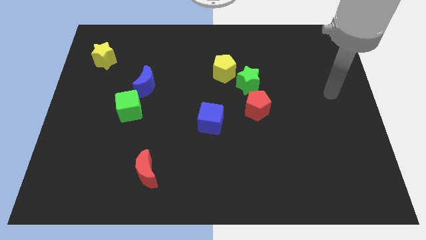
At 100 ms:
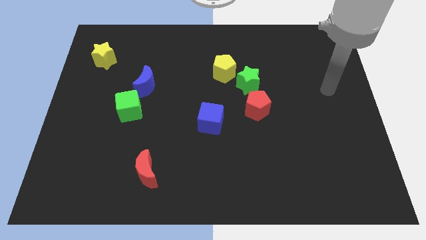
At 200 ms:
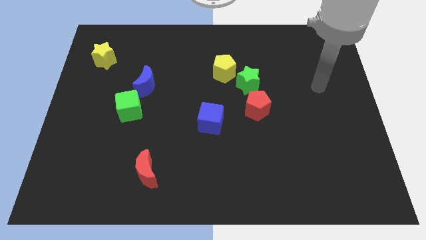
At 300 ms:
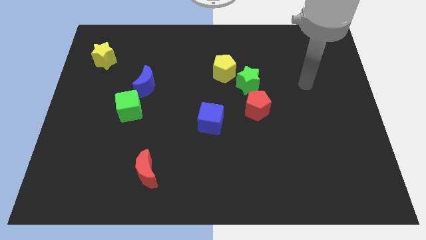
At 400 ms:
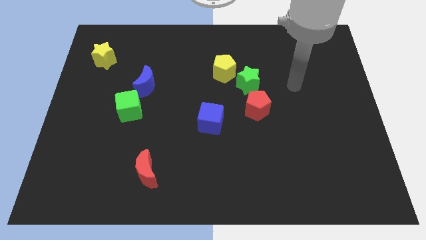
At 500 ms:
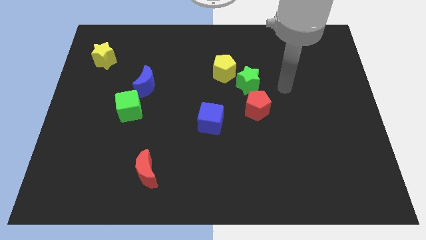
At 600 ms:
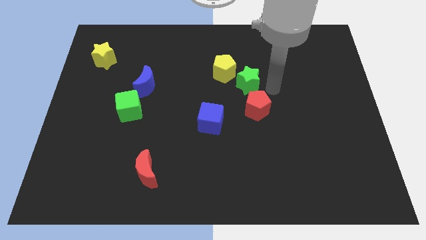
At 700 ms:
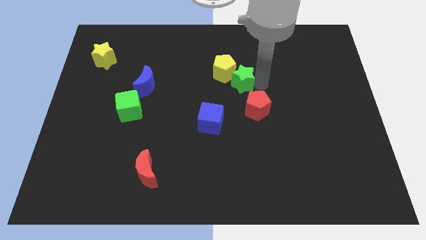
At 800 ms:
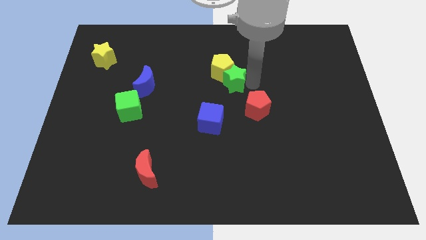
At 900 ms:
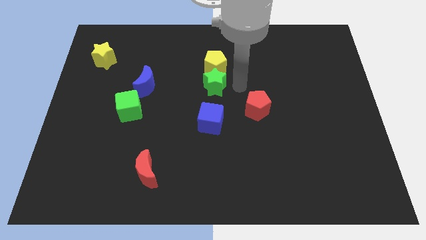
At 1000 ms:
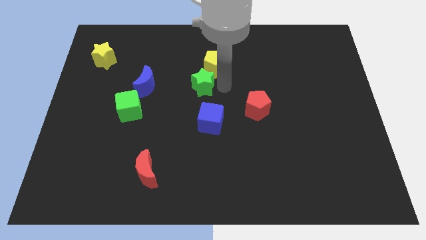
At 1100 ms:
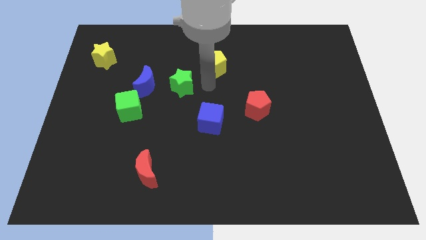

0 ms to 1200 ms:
move the yellow pentagon away from the green star

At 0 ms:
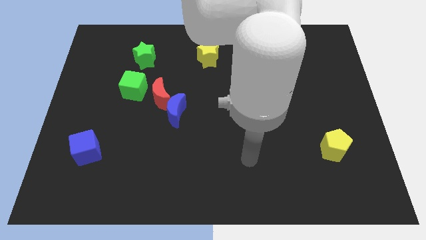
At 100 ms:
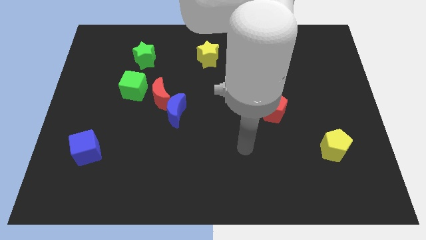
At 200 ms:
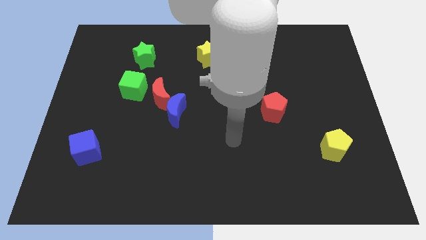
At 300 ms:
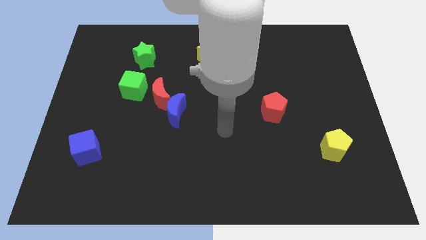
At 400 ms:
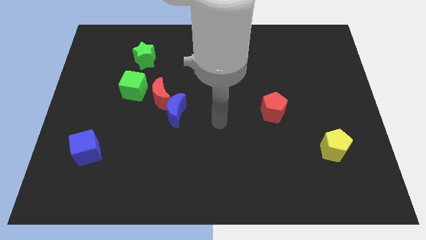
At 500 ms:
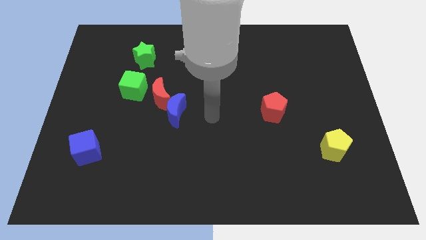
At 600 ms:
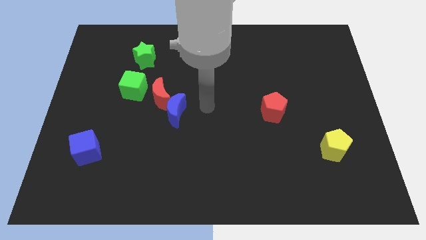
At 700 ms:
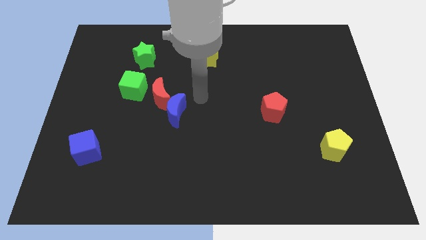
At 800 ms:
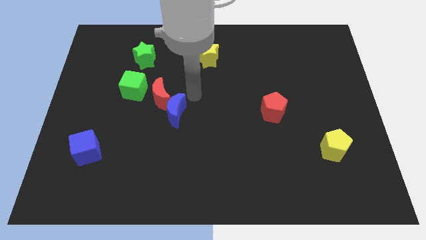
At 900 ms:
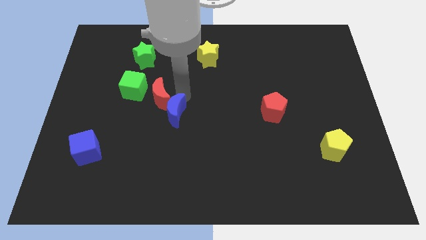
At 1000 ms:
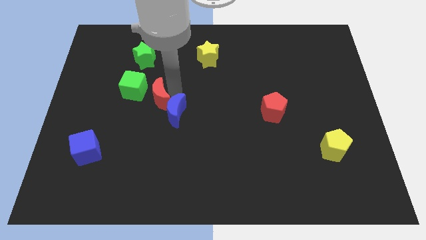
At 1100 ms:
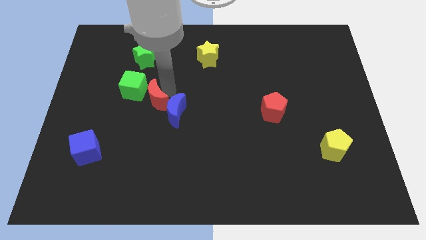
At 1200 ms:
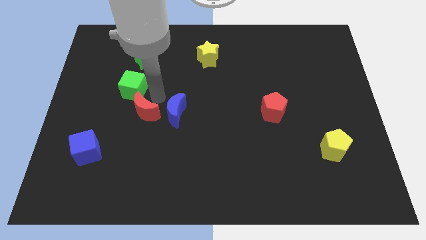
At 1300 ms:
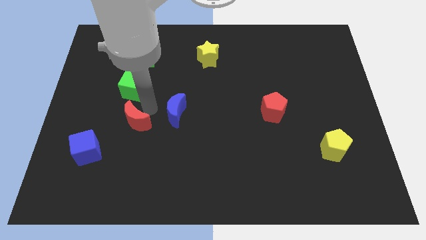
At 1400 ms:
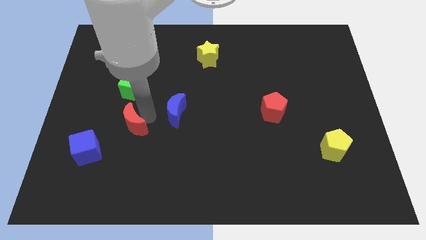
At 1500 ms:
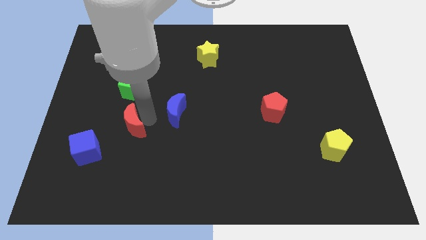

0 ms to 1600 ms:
pull the blue moon apart from the red moon

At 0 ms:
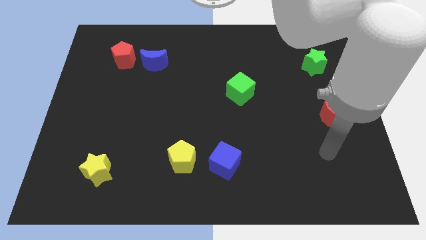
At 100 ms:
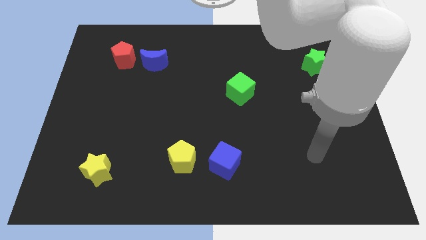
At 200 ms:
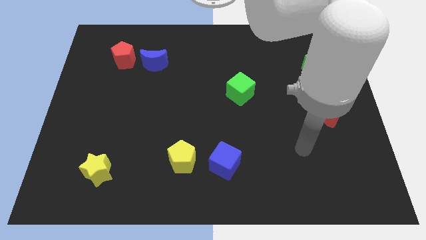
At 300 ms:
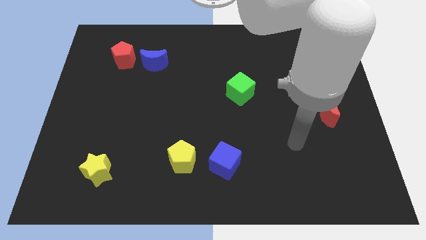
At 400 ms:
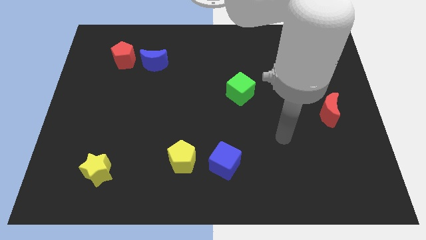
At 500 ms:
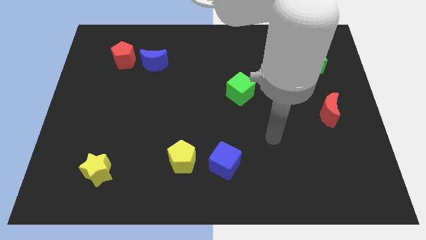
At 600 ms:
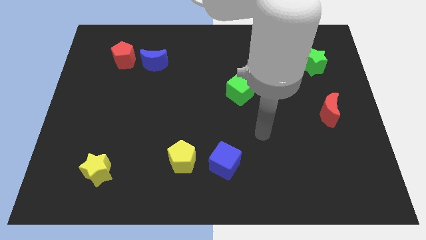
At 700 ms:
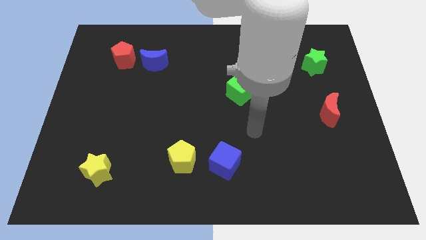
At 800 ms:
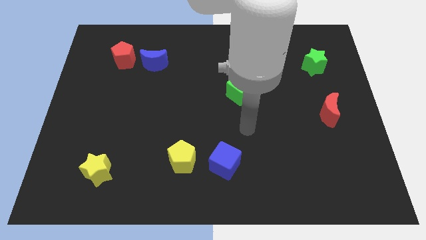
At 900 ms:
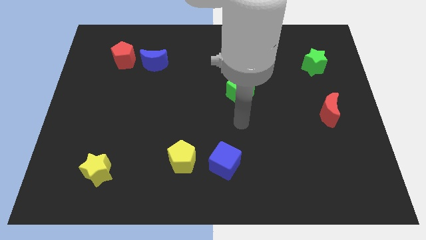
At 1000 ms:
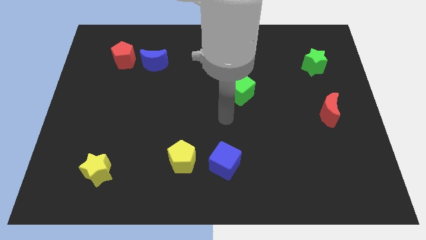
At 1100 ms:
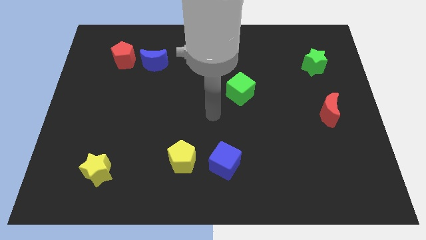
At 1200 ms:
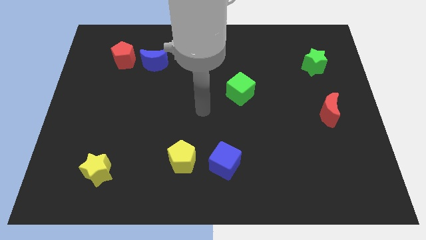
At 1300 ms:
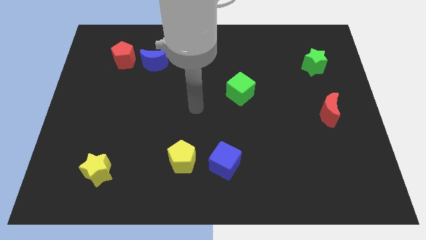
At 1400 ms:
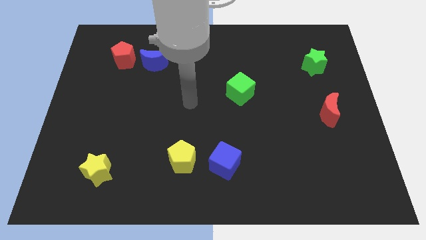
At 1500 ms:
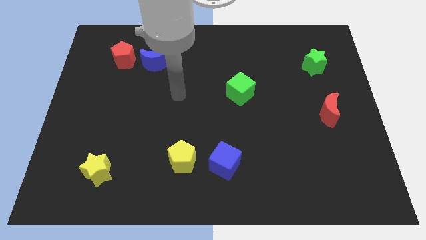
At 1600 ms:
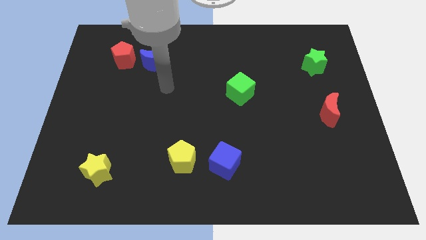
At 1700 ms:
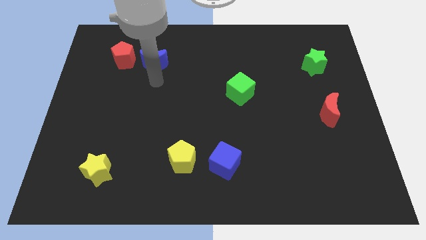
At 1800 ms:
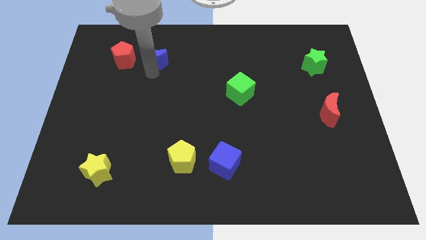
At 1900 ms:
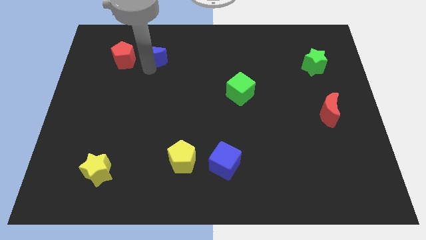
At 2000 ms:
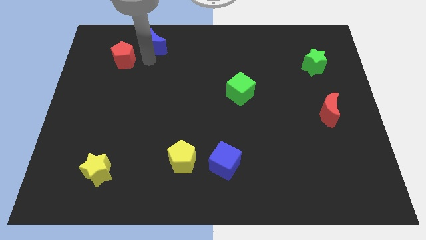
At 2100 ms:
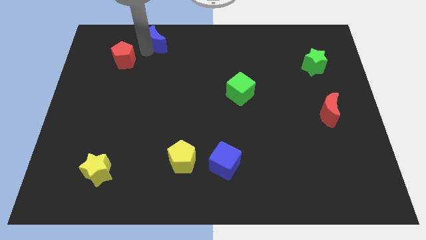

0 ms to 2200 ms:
move the red pentagon away from the blue moon

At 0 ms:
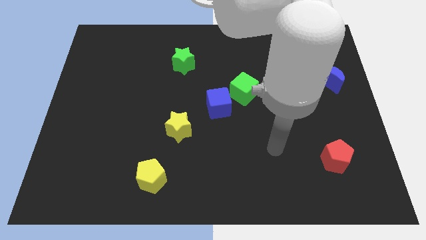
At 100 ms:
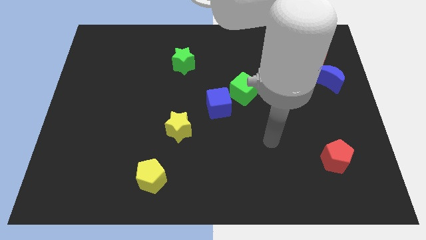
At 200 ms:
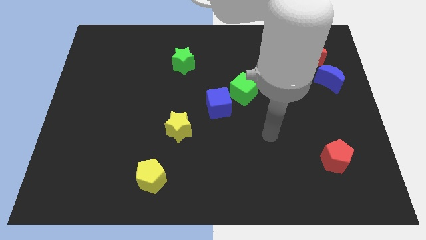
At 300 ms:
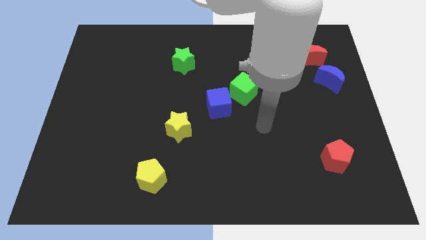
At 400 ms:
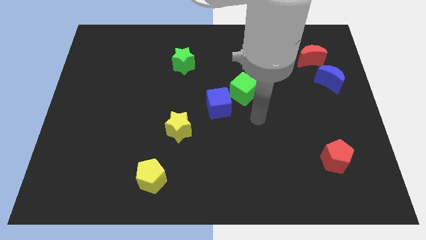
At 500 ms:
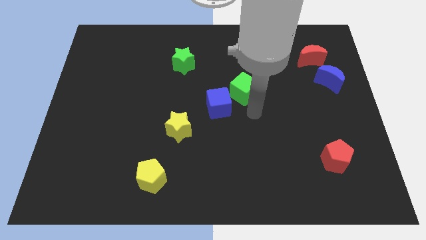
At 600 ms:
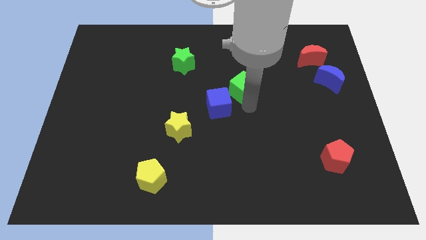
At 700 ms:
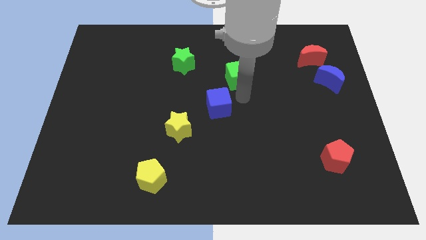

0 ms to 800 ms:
pull the blue cube apart from the green cube

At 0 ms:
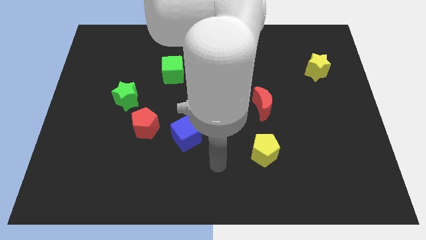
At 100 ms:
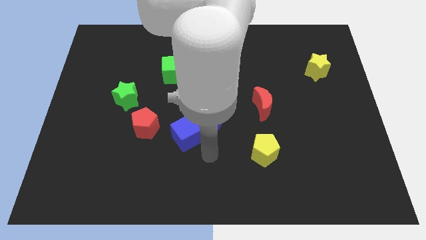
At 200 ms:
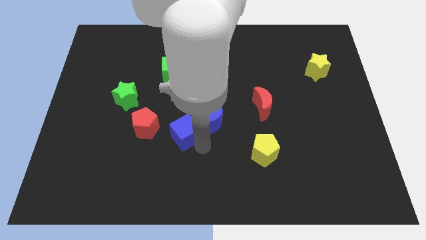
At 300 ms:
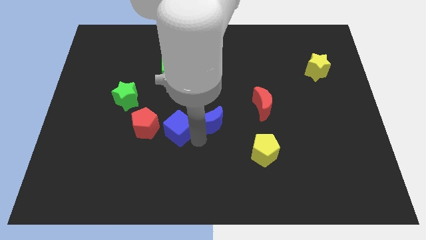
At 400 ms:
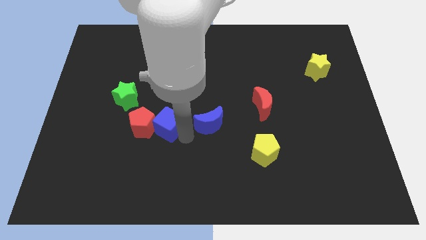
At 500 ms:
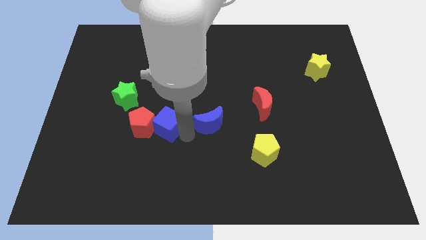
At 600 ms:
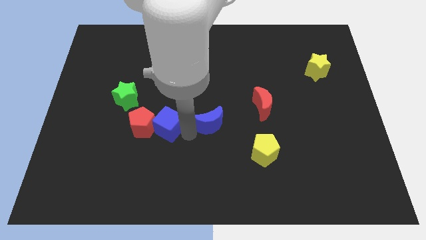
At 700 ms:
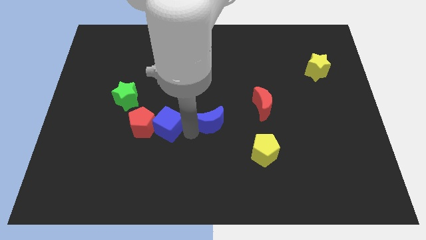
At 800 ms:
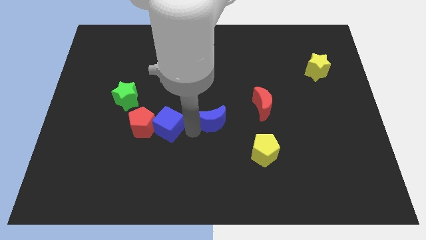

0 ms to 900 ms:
pull the blue moon apart from the blue cube

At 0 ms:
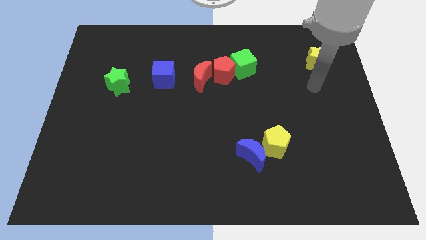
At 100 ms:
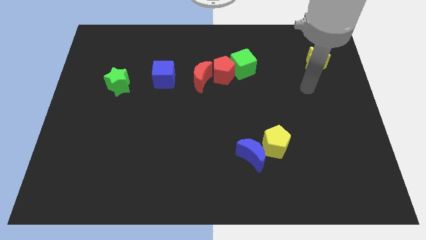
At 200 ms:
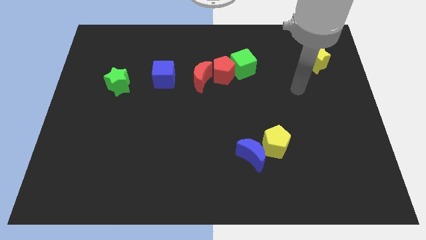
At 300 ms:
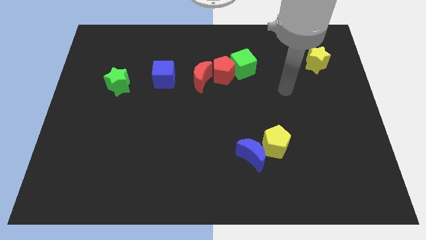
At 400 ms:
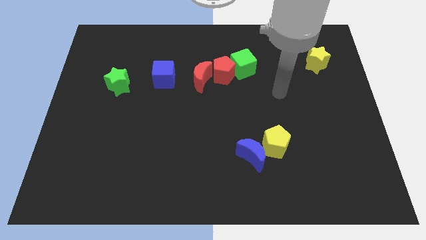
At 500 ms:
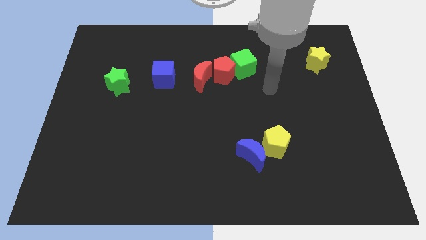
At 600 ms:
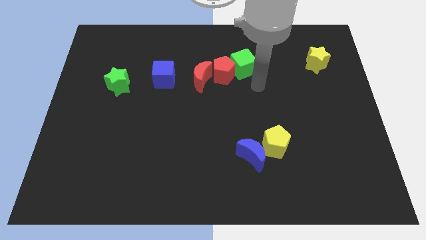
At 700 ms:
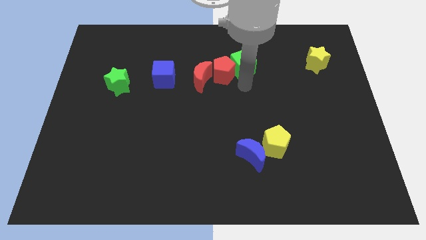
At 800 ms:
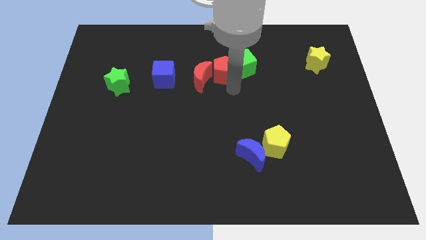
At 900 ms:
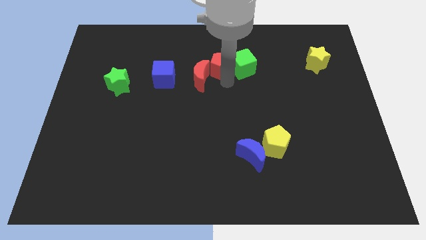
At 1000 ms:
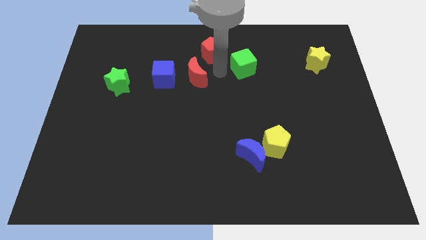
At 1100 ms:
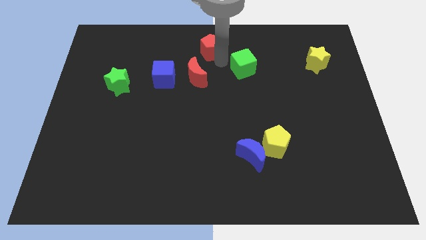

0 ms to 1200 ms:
move the green cube away from the red pentagon

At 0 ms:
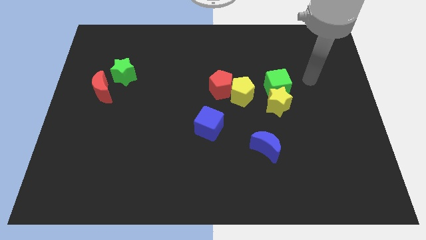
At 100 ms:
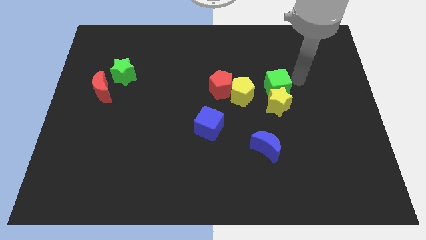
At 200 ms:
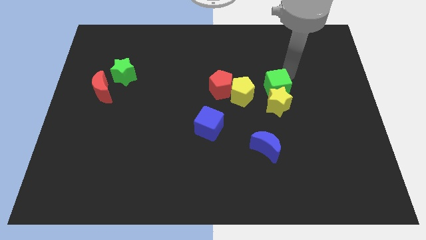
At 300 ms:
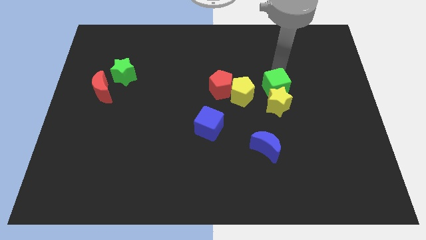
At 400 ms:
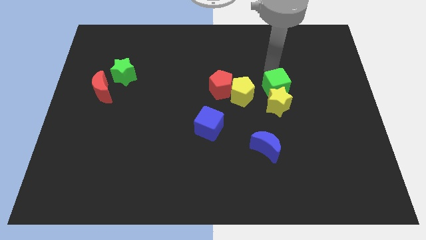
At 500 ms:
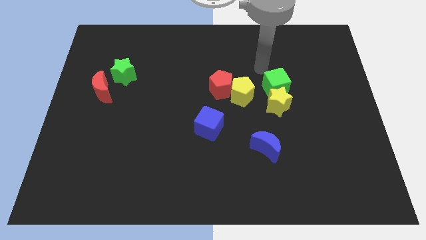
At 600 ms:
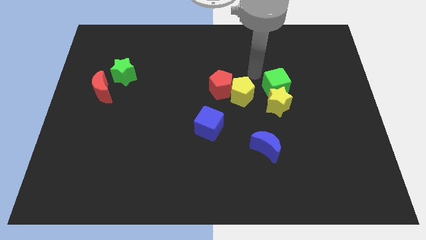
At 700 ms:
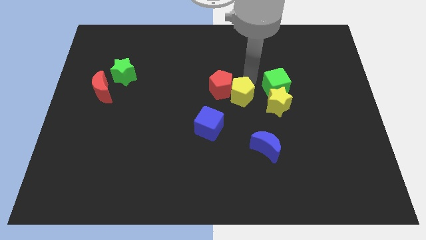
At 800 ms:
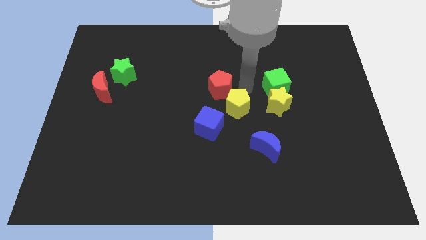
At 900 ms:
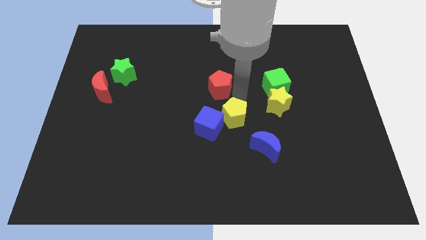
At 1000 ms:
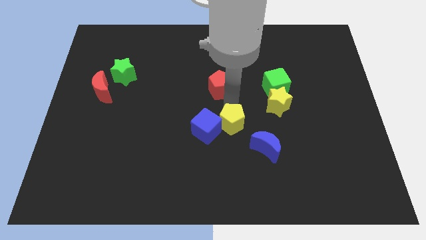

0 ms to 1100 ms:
pull the red pentagon apart from the yellow pentagon

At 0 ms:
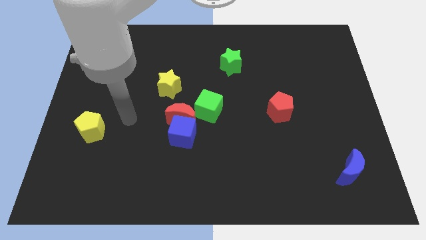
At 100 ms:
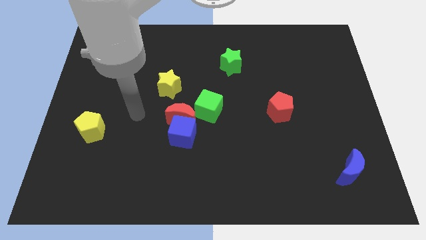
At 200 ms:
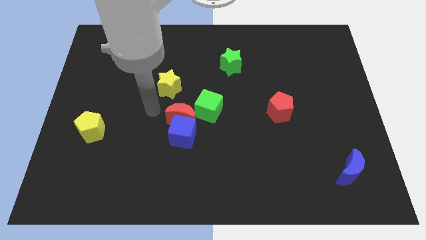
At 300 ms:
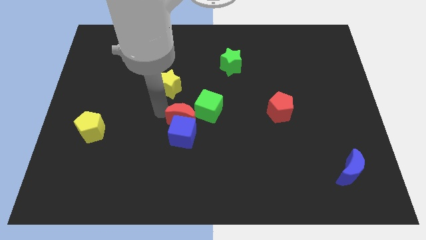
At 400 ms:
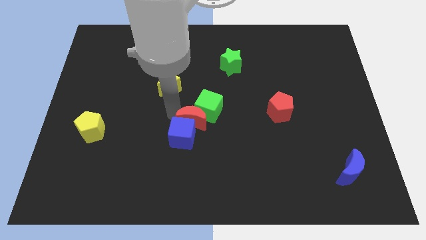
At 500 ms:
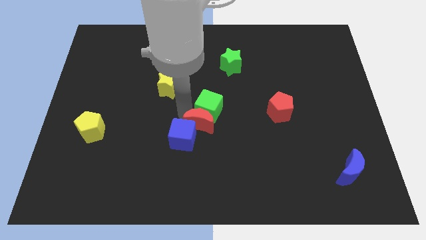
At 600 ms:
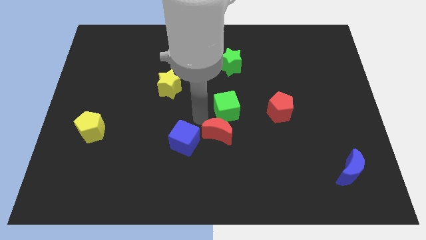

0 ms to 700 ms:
move the blue cube away from the red moon and green cube
